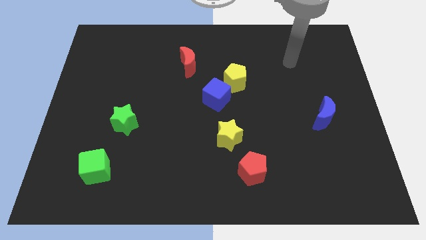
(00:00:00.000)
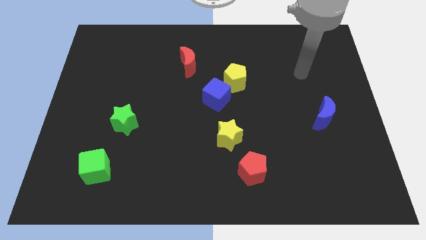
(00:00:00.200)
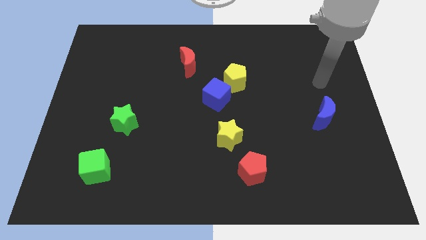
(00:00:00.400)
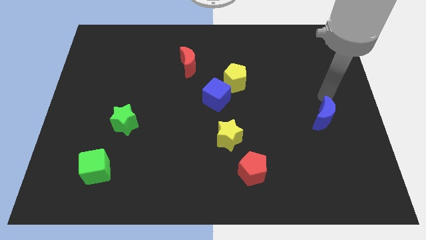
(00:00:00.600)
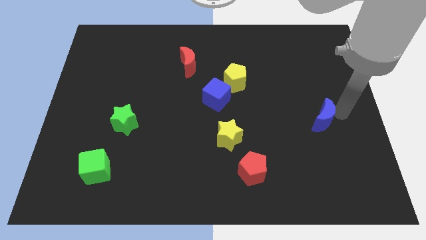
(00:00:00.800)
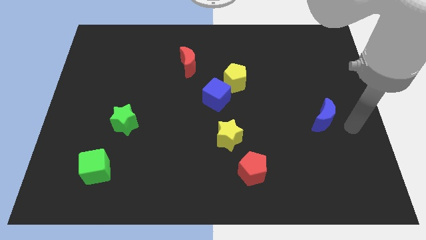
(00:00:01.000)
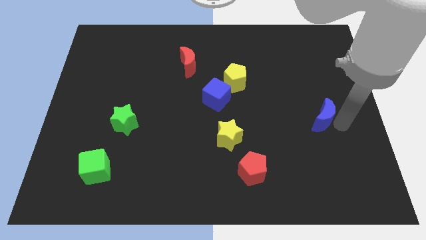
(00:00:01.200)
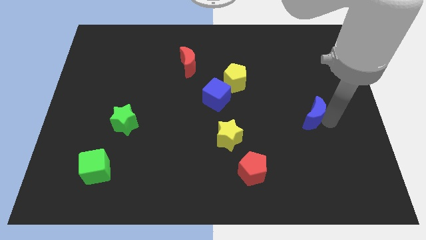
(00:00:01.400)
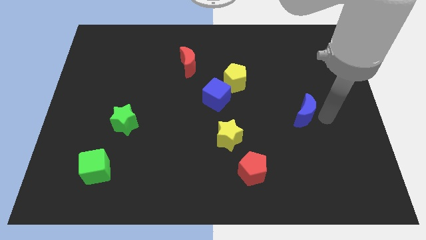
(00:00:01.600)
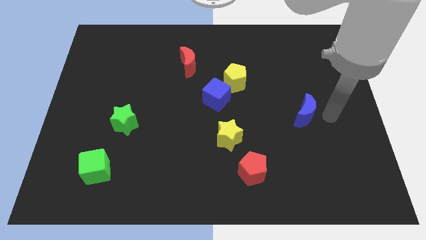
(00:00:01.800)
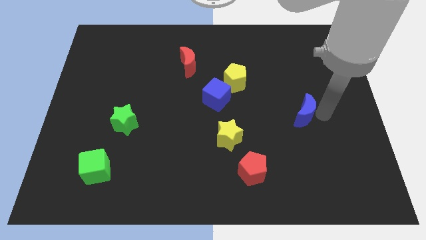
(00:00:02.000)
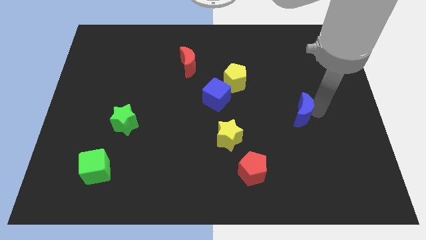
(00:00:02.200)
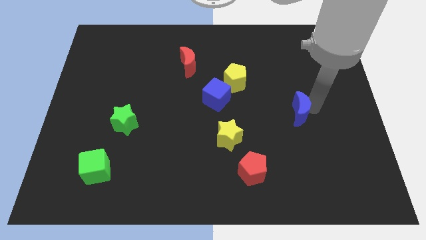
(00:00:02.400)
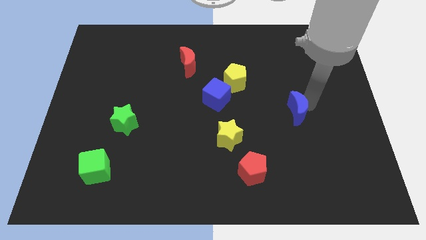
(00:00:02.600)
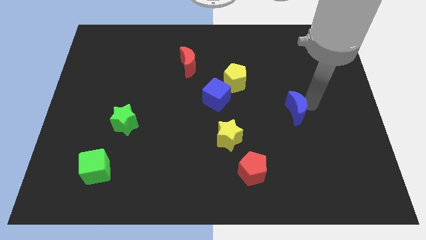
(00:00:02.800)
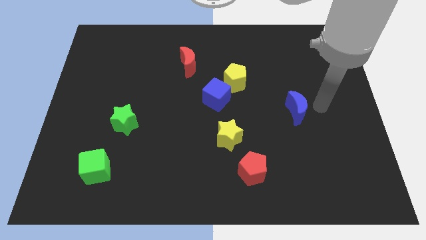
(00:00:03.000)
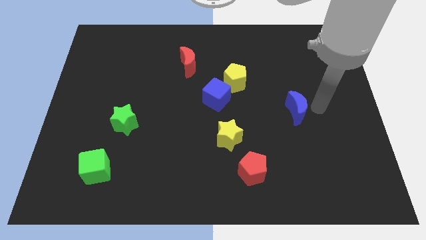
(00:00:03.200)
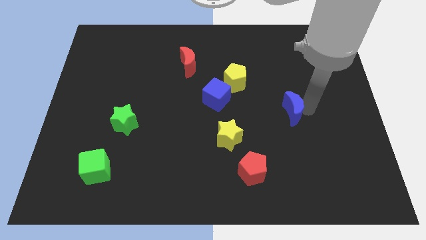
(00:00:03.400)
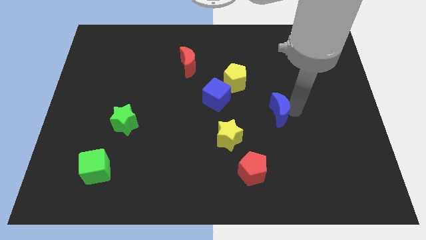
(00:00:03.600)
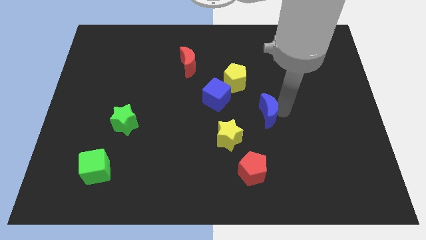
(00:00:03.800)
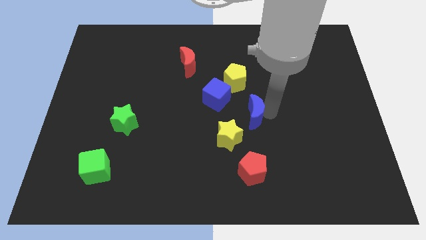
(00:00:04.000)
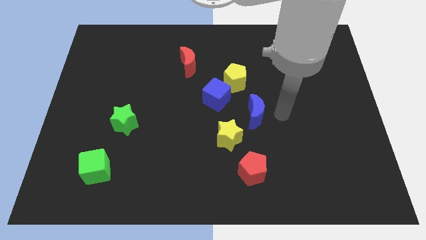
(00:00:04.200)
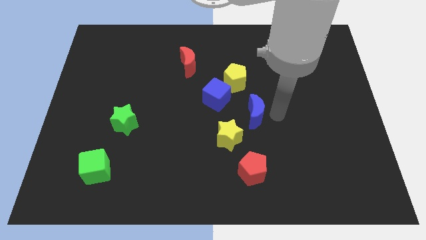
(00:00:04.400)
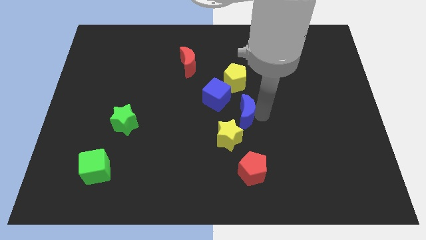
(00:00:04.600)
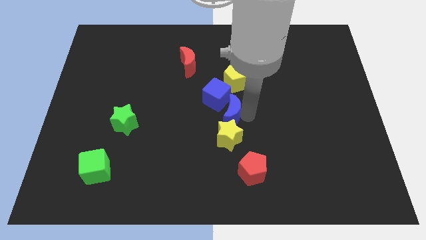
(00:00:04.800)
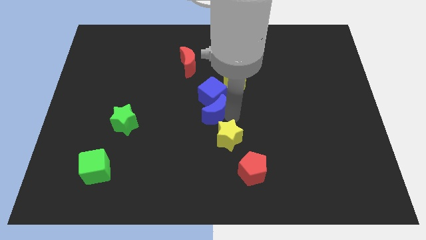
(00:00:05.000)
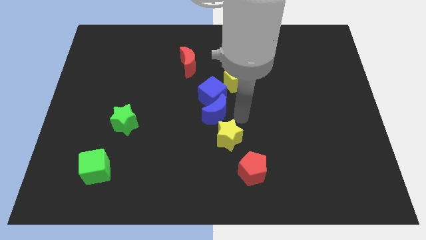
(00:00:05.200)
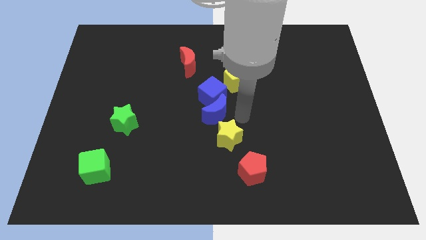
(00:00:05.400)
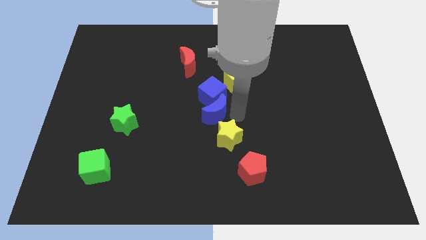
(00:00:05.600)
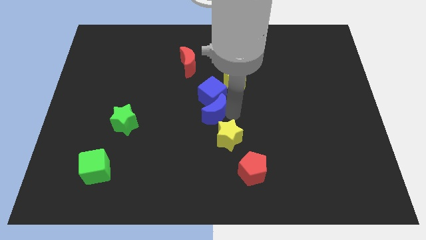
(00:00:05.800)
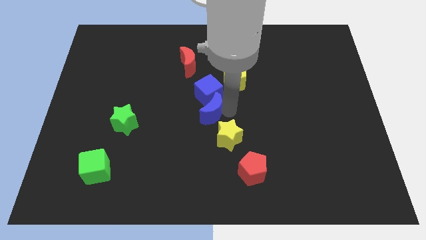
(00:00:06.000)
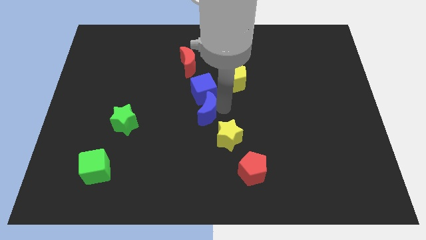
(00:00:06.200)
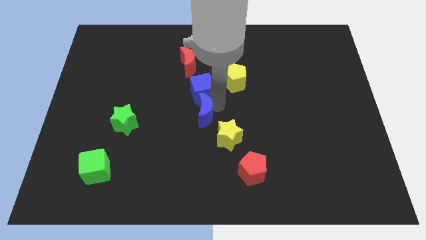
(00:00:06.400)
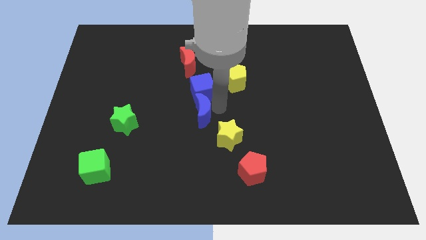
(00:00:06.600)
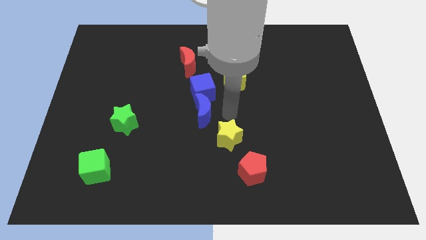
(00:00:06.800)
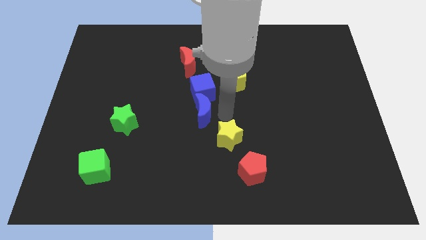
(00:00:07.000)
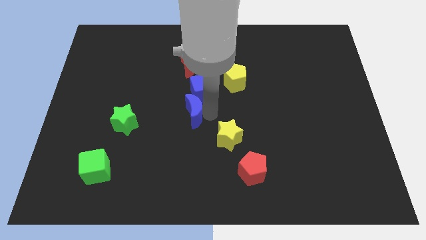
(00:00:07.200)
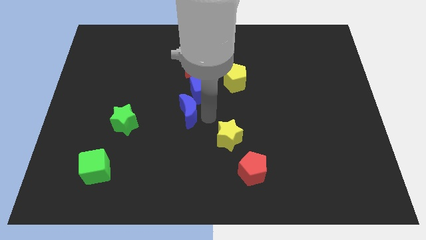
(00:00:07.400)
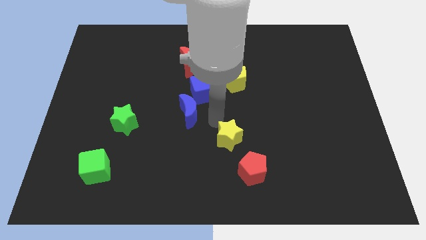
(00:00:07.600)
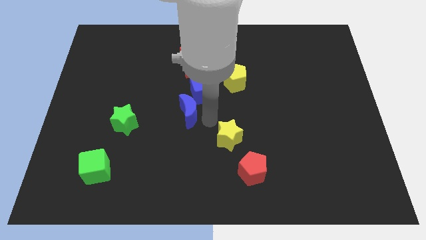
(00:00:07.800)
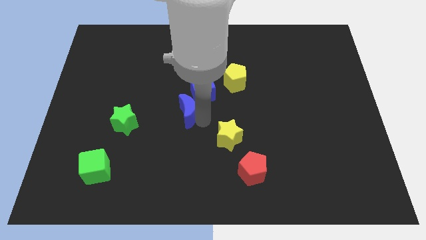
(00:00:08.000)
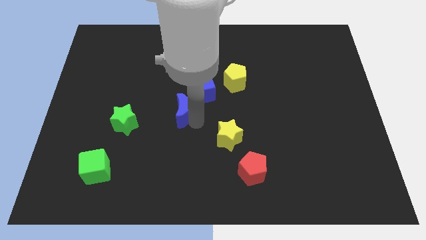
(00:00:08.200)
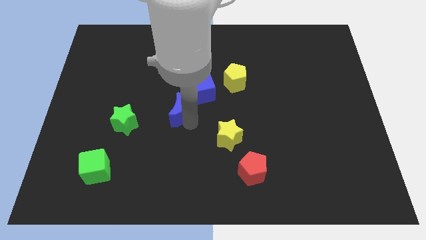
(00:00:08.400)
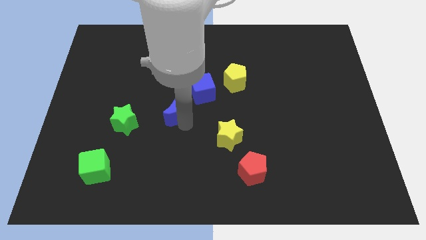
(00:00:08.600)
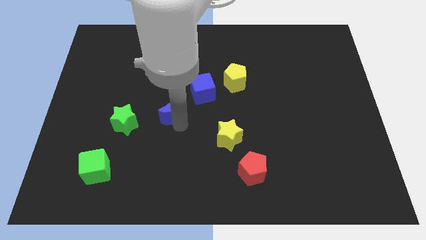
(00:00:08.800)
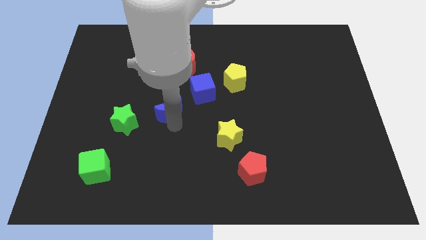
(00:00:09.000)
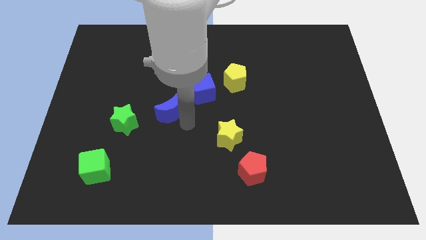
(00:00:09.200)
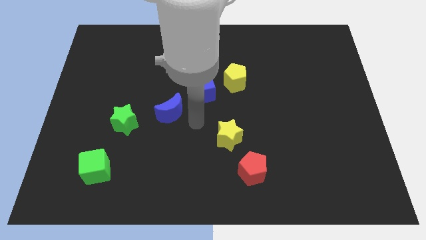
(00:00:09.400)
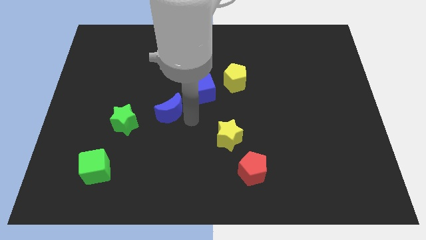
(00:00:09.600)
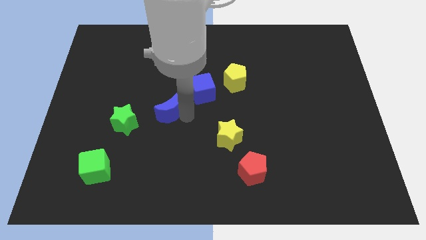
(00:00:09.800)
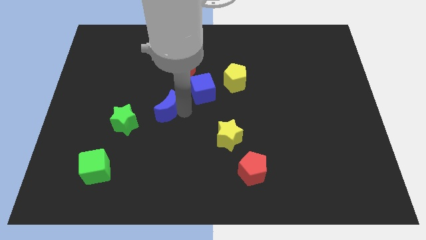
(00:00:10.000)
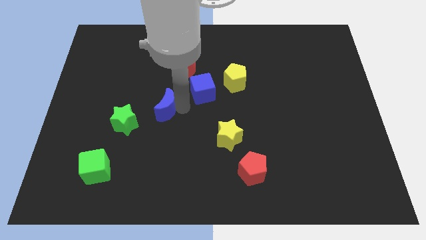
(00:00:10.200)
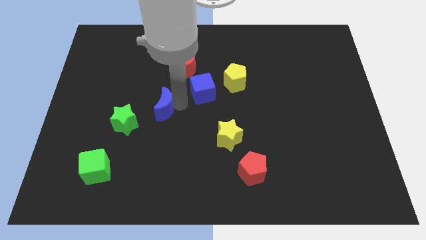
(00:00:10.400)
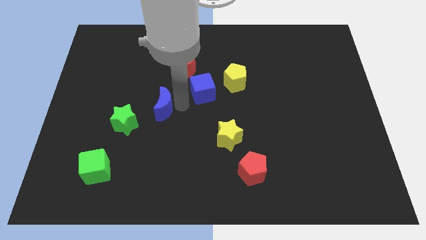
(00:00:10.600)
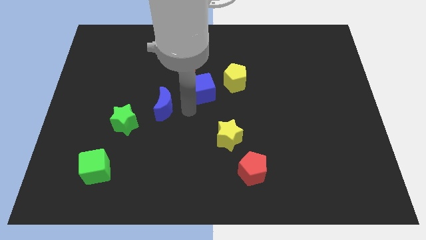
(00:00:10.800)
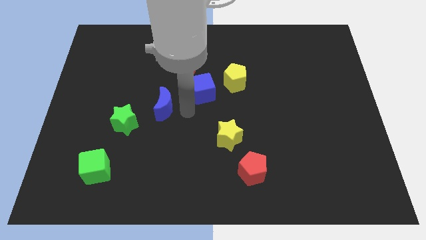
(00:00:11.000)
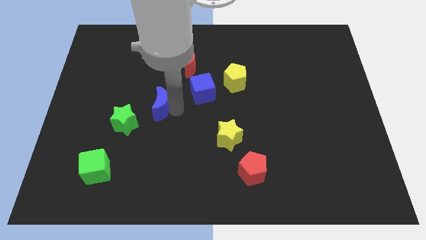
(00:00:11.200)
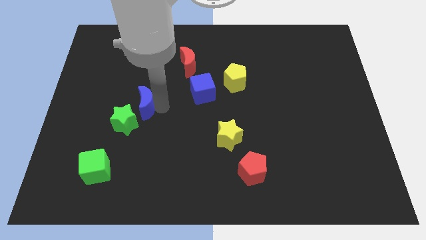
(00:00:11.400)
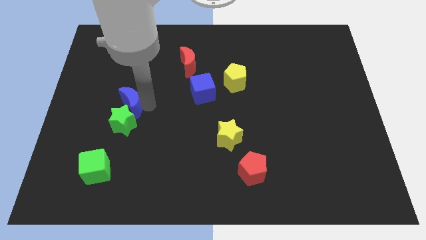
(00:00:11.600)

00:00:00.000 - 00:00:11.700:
push the blue moon to the top left side of the green star

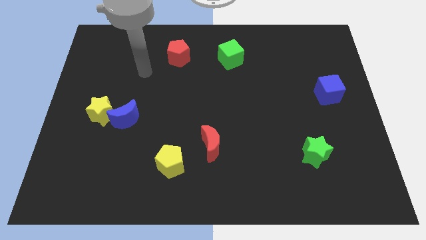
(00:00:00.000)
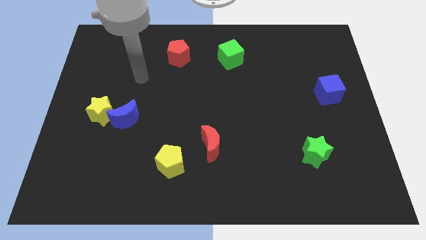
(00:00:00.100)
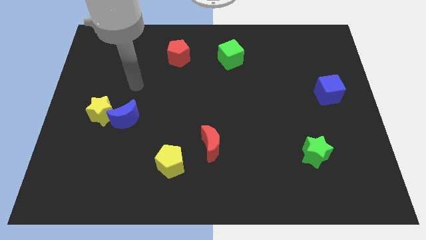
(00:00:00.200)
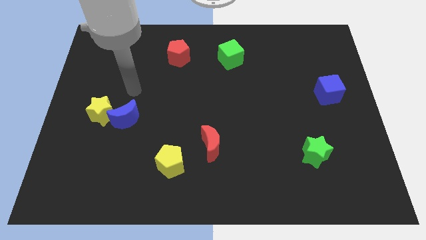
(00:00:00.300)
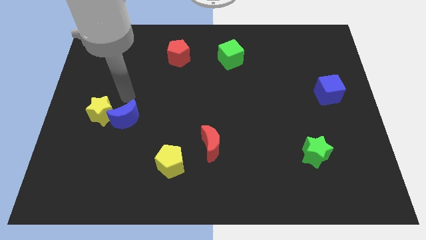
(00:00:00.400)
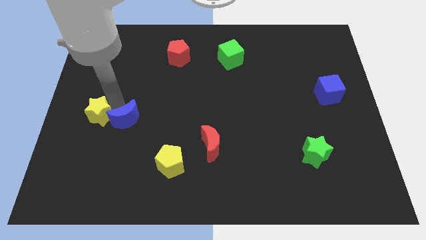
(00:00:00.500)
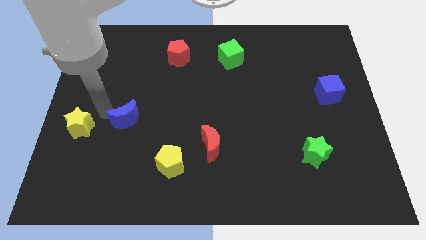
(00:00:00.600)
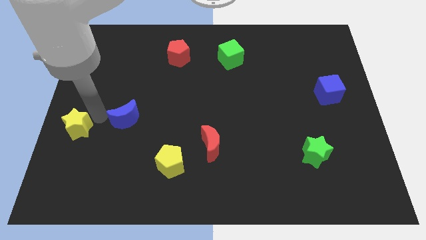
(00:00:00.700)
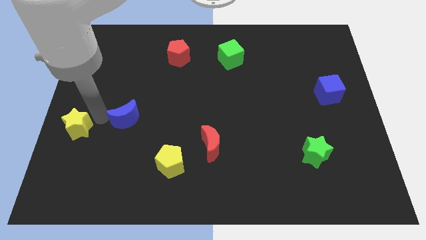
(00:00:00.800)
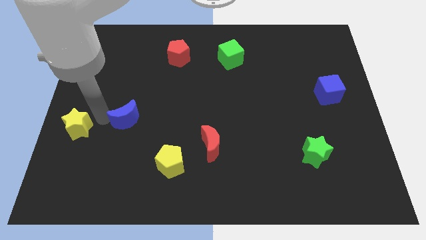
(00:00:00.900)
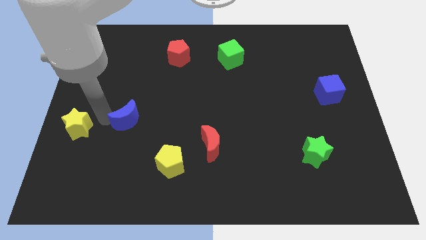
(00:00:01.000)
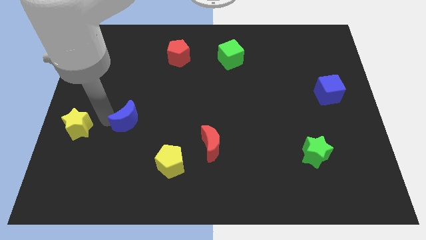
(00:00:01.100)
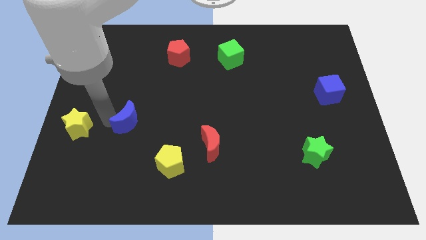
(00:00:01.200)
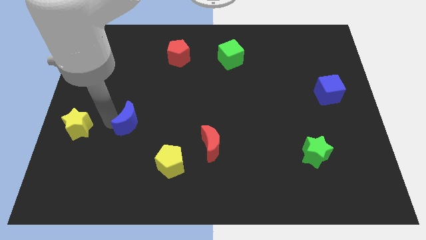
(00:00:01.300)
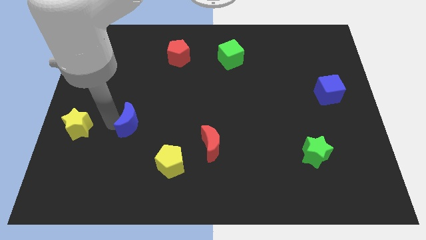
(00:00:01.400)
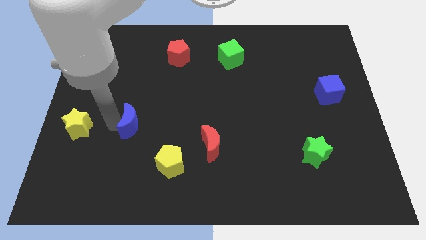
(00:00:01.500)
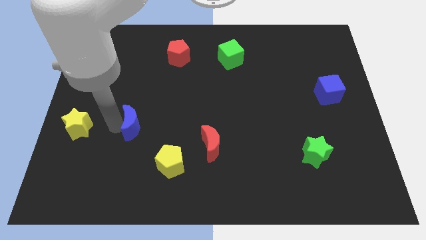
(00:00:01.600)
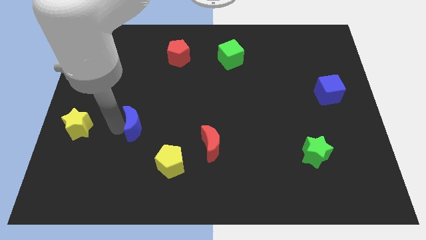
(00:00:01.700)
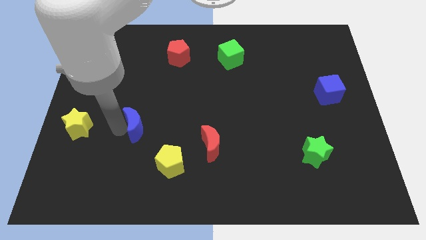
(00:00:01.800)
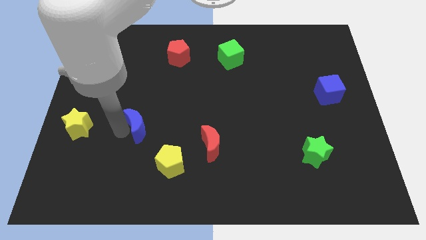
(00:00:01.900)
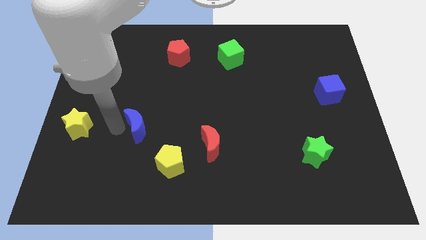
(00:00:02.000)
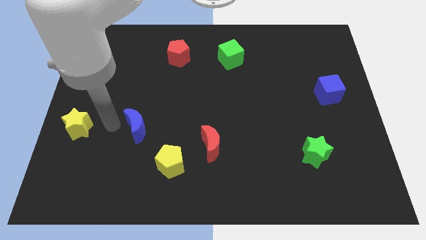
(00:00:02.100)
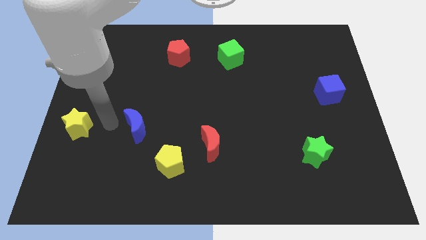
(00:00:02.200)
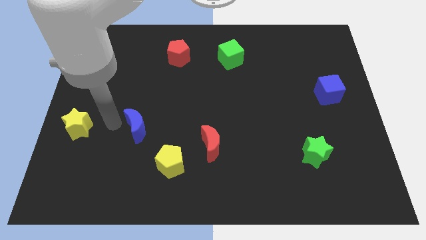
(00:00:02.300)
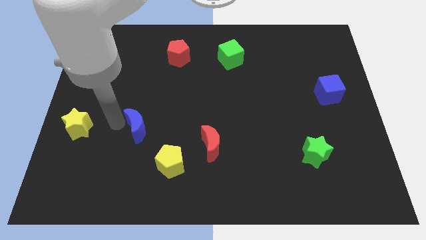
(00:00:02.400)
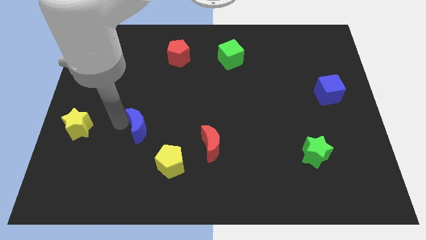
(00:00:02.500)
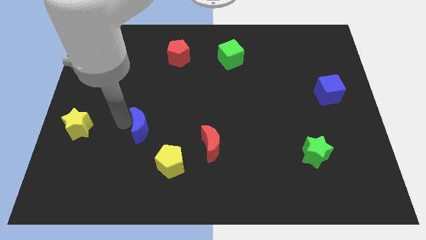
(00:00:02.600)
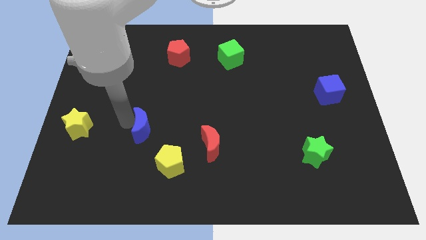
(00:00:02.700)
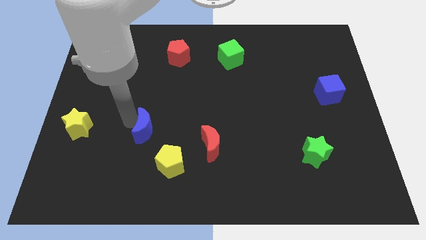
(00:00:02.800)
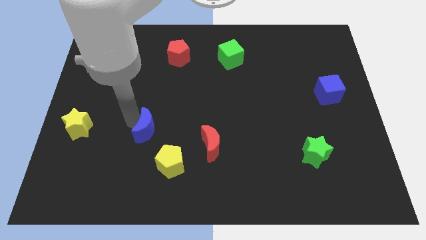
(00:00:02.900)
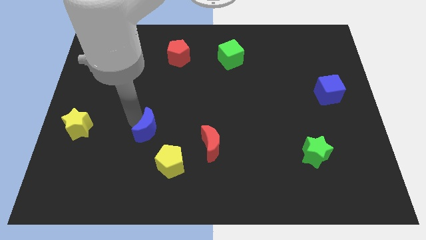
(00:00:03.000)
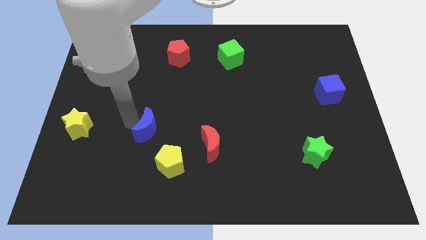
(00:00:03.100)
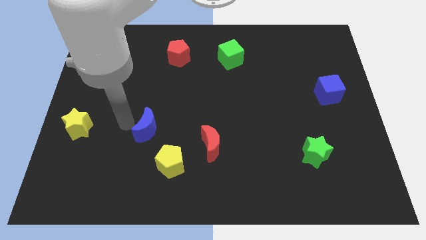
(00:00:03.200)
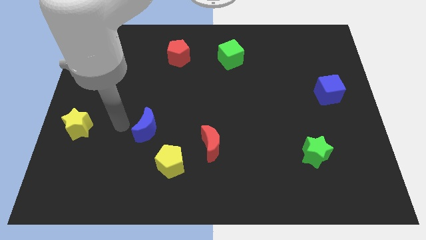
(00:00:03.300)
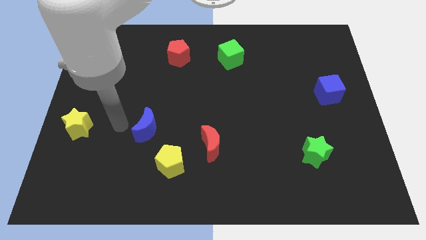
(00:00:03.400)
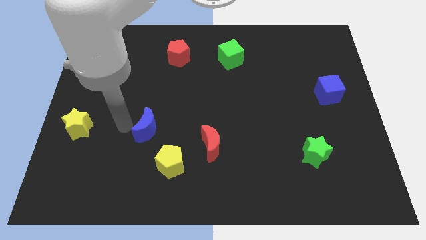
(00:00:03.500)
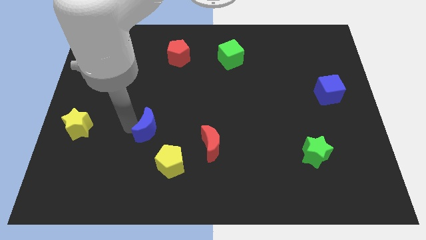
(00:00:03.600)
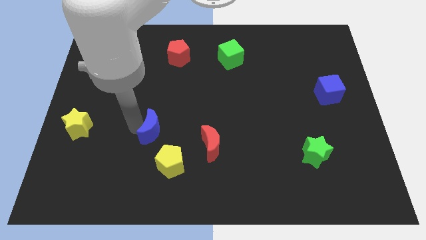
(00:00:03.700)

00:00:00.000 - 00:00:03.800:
put the blue moon to the left of the red moon
